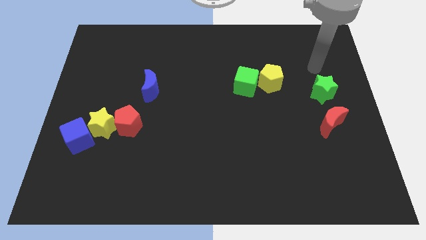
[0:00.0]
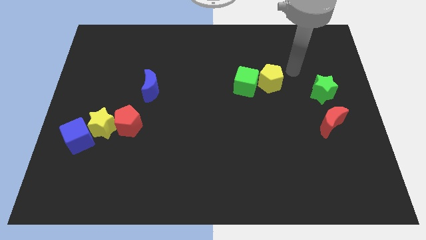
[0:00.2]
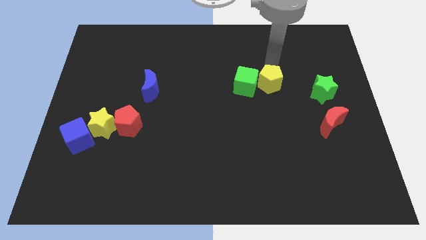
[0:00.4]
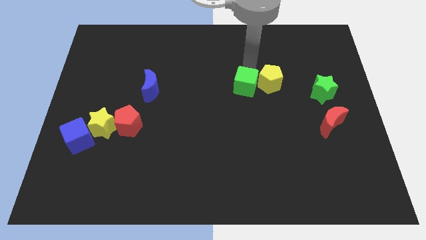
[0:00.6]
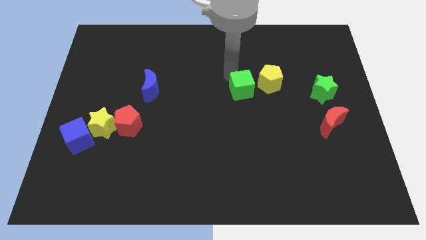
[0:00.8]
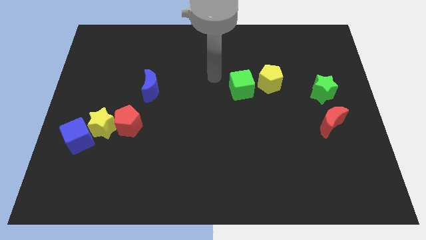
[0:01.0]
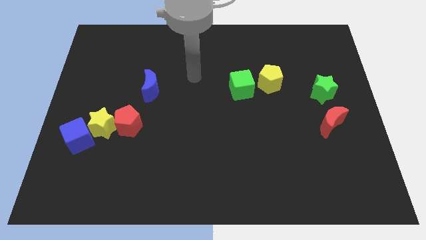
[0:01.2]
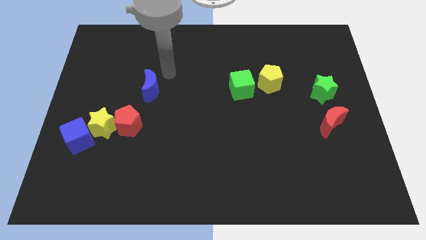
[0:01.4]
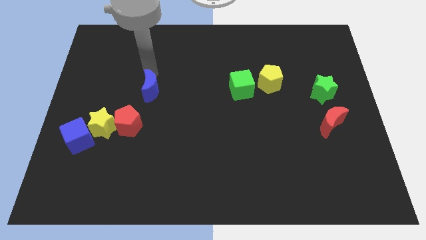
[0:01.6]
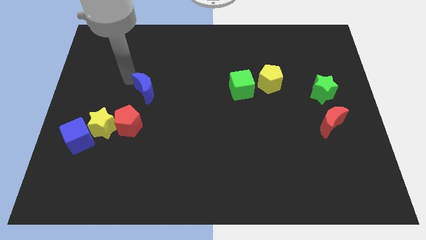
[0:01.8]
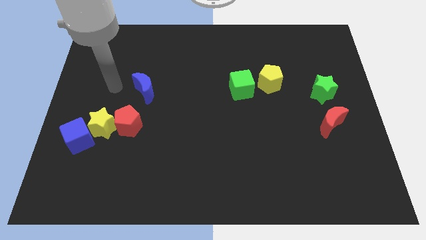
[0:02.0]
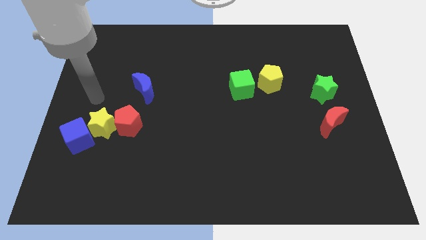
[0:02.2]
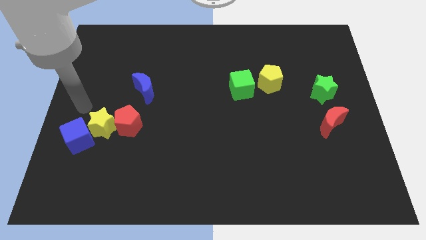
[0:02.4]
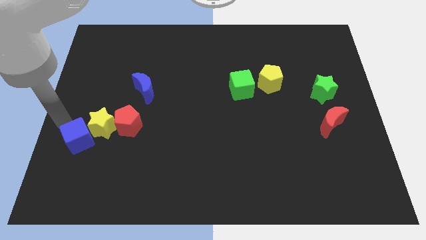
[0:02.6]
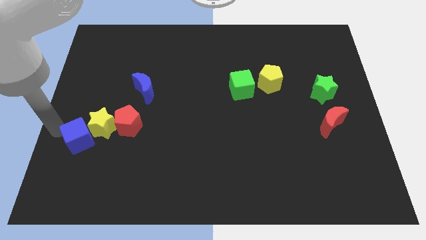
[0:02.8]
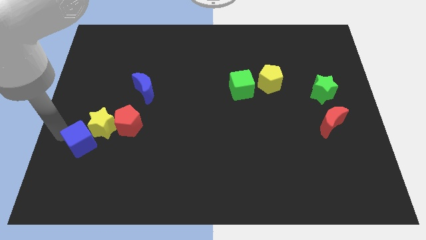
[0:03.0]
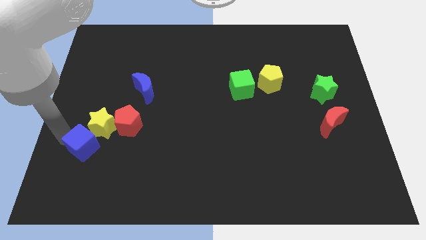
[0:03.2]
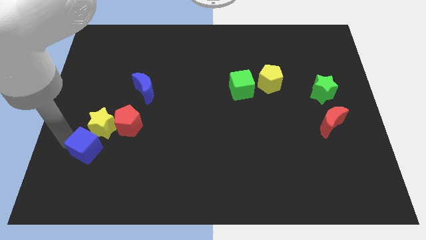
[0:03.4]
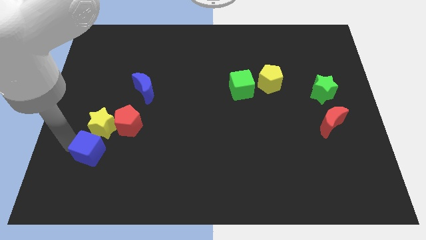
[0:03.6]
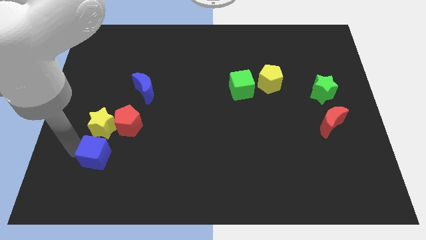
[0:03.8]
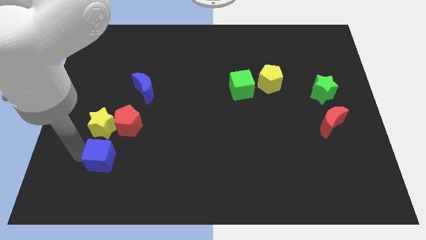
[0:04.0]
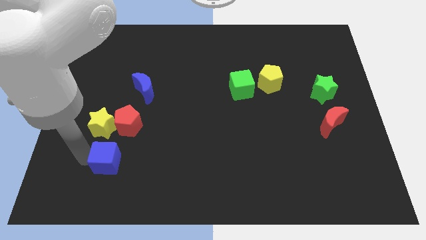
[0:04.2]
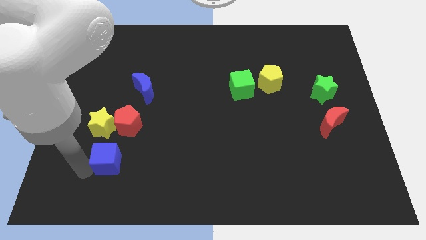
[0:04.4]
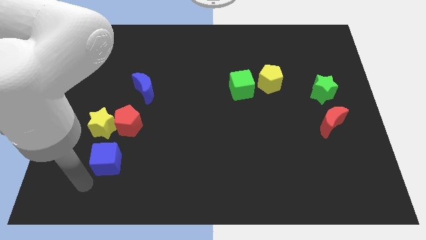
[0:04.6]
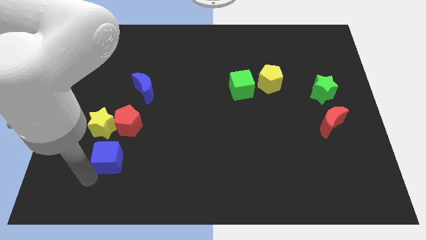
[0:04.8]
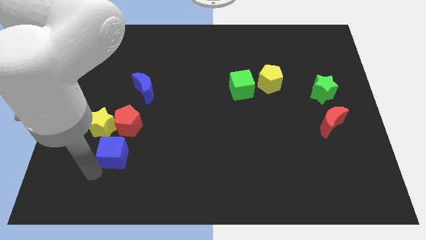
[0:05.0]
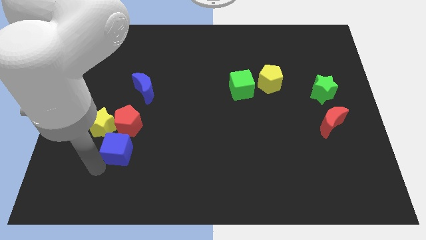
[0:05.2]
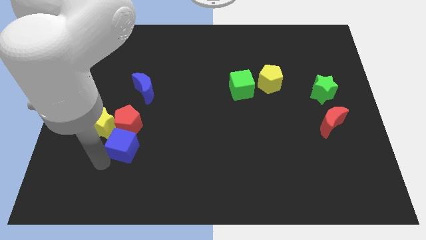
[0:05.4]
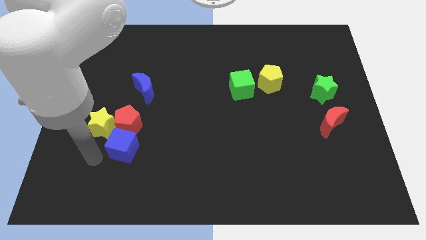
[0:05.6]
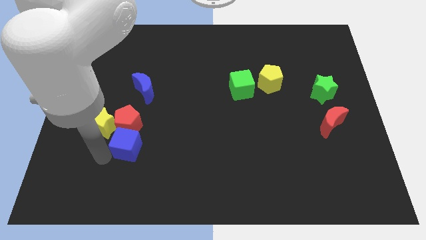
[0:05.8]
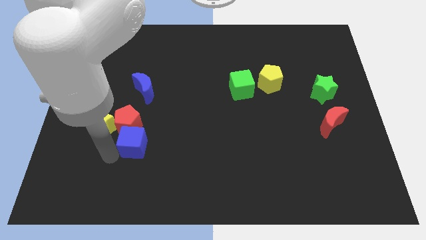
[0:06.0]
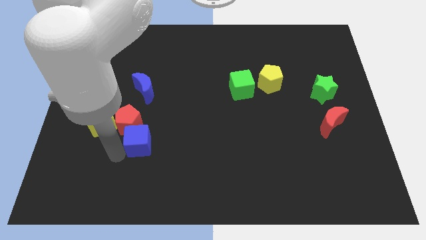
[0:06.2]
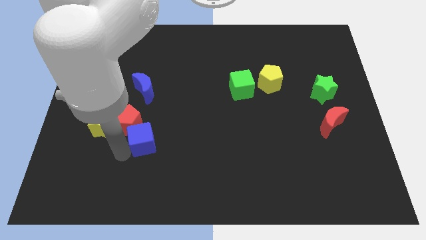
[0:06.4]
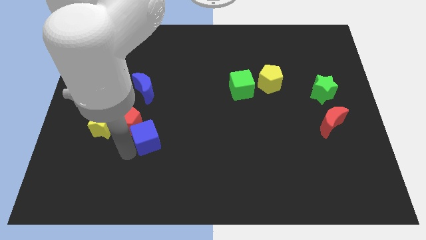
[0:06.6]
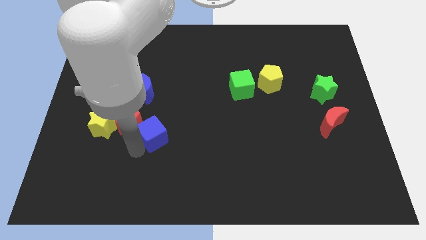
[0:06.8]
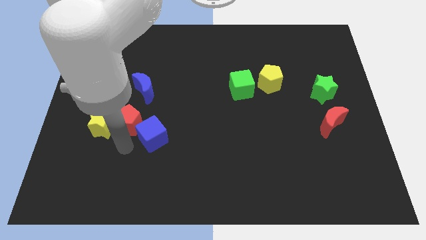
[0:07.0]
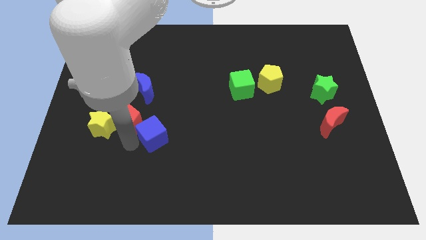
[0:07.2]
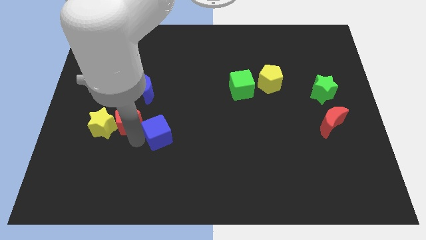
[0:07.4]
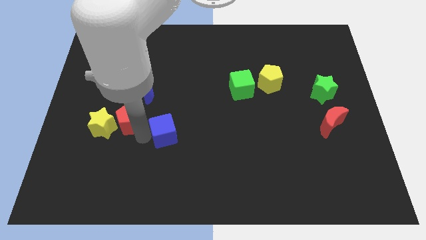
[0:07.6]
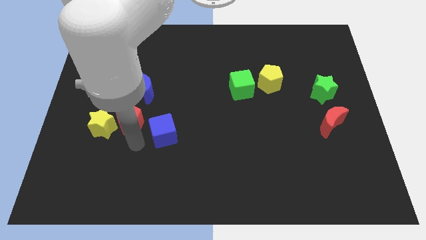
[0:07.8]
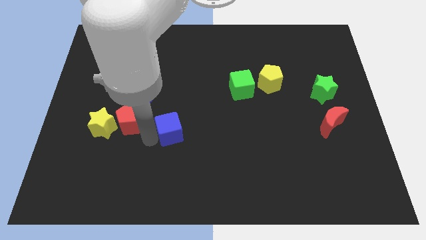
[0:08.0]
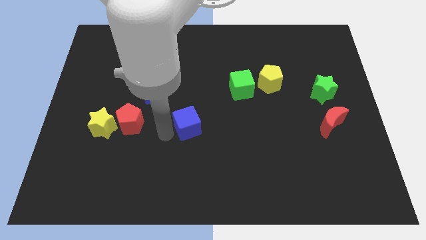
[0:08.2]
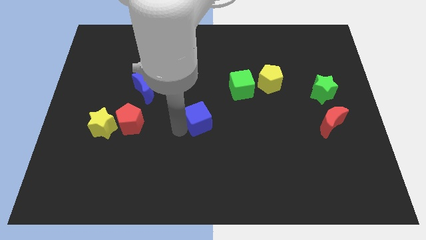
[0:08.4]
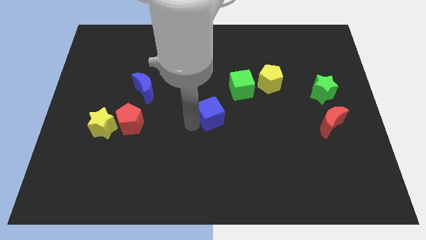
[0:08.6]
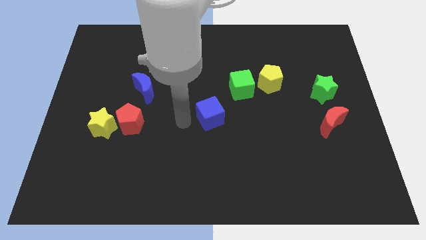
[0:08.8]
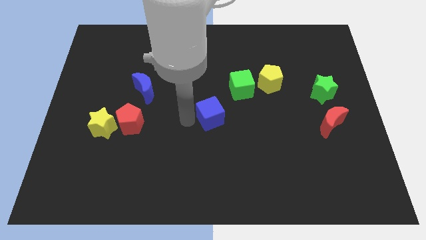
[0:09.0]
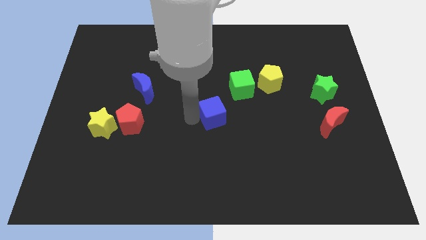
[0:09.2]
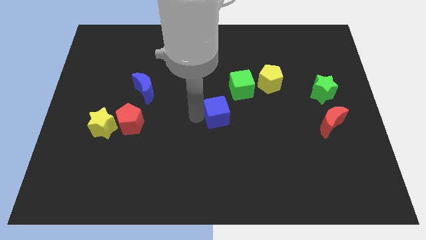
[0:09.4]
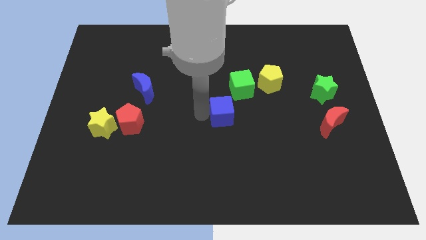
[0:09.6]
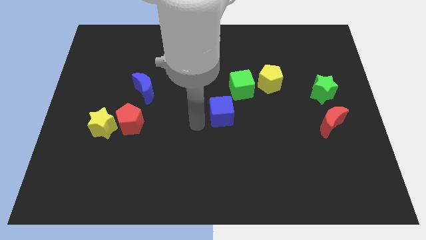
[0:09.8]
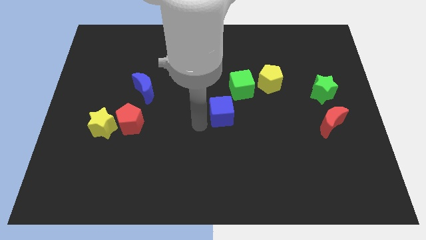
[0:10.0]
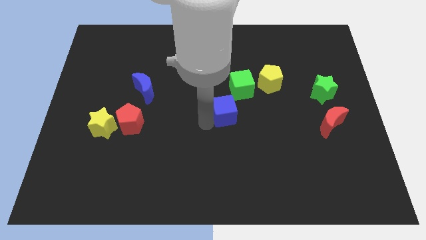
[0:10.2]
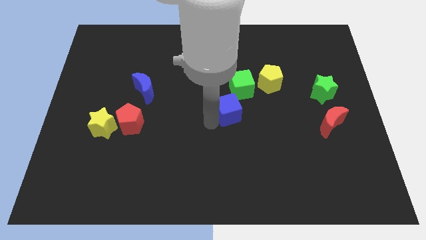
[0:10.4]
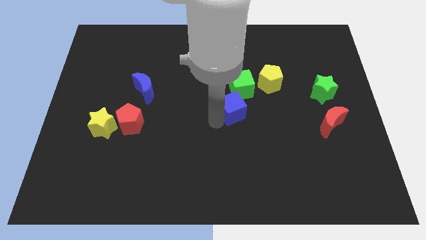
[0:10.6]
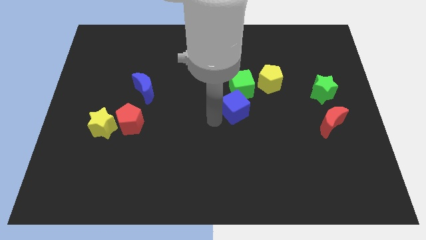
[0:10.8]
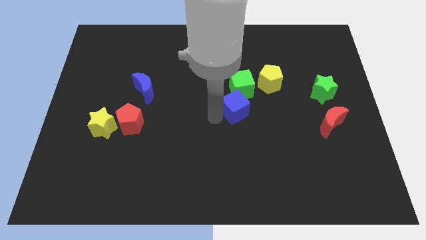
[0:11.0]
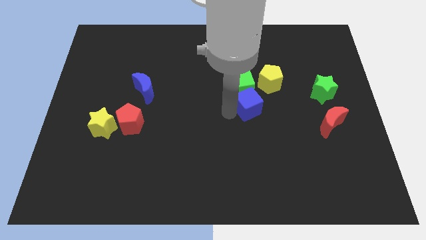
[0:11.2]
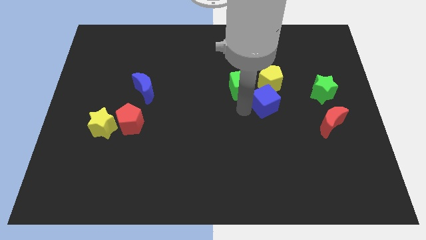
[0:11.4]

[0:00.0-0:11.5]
move the blue cube left of the green star

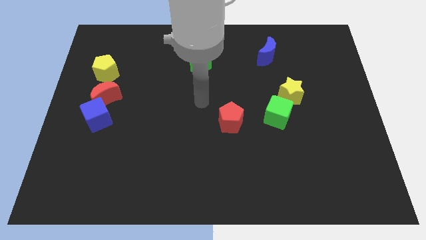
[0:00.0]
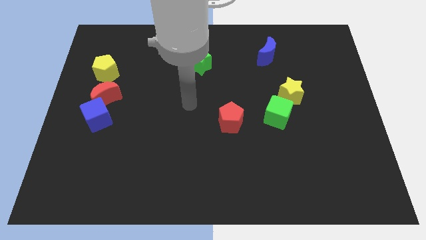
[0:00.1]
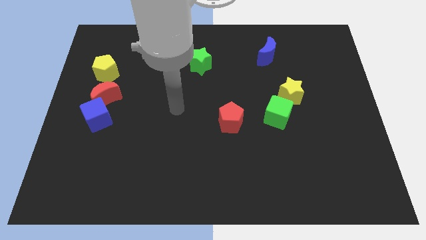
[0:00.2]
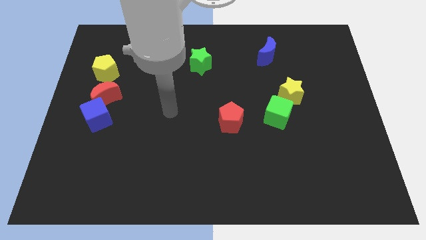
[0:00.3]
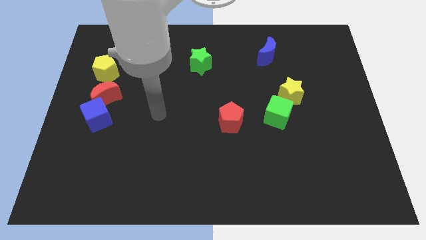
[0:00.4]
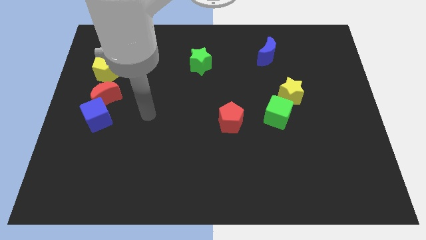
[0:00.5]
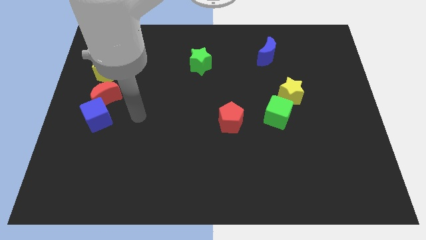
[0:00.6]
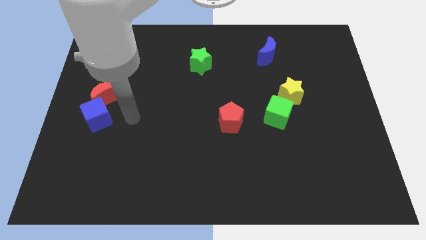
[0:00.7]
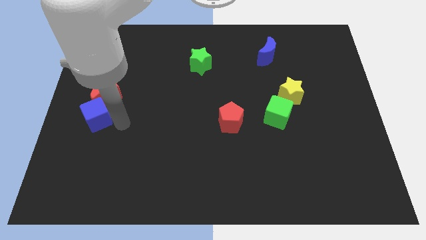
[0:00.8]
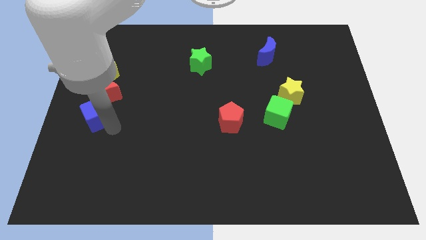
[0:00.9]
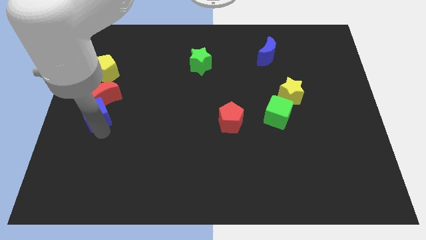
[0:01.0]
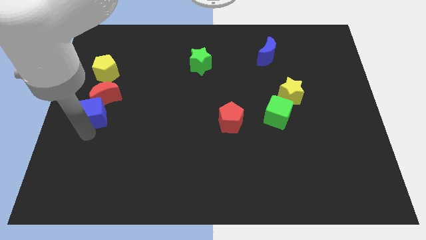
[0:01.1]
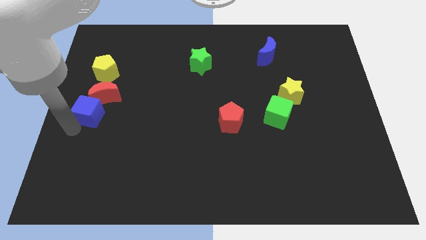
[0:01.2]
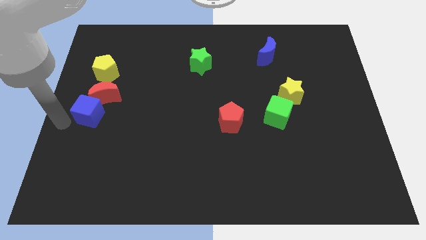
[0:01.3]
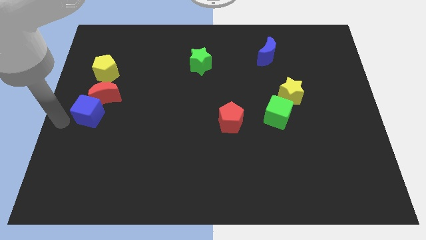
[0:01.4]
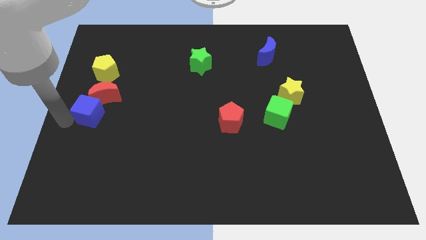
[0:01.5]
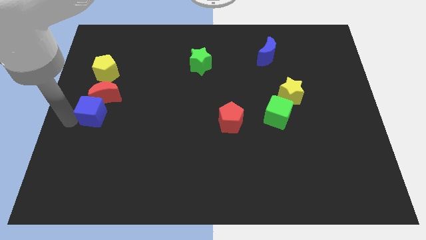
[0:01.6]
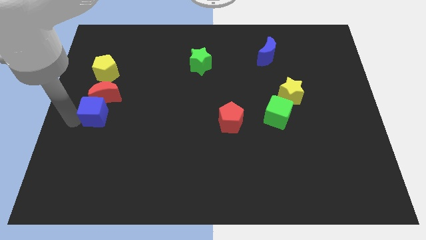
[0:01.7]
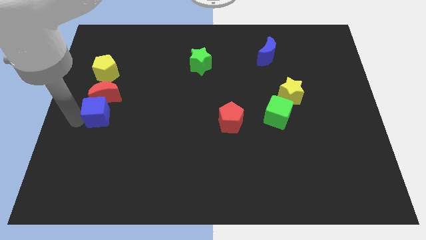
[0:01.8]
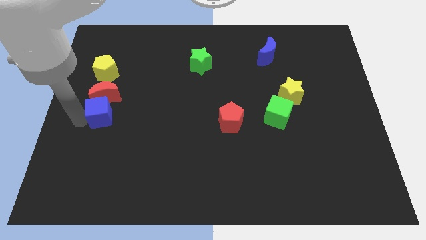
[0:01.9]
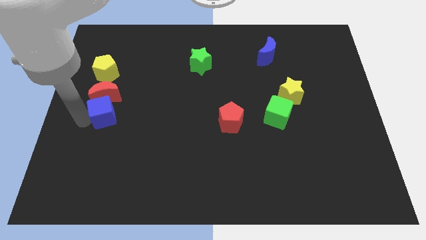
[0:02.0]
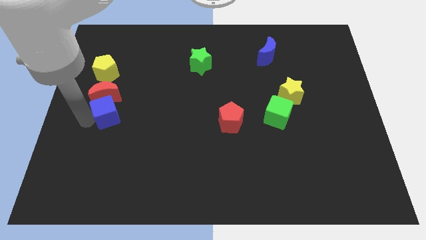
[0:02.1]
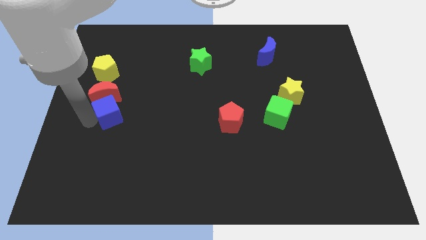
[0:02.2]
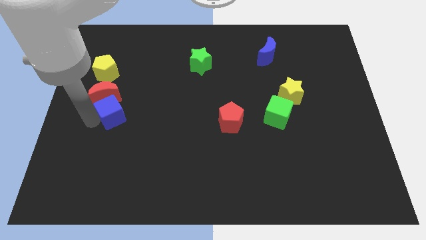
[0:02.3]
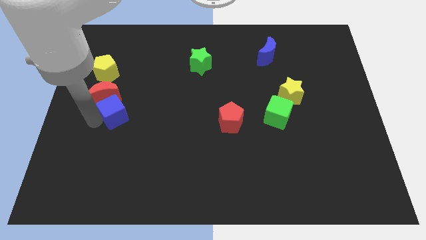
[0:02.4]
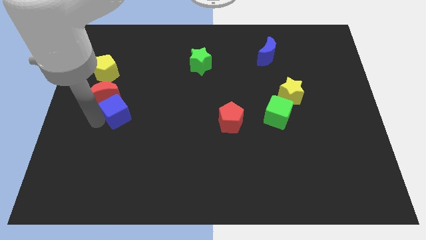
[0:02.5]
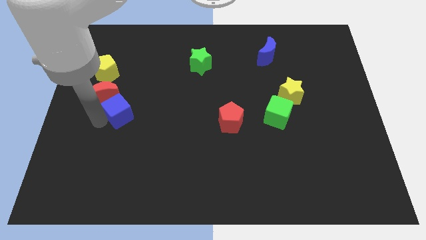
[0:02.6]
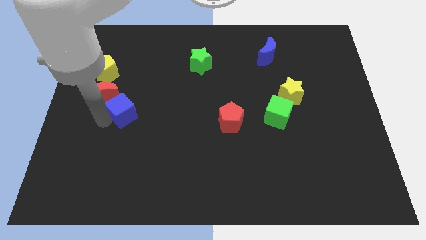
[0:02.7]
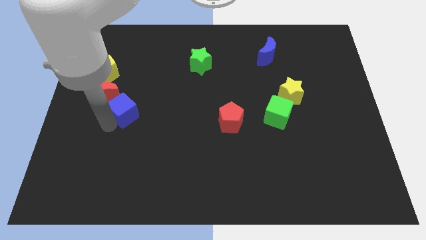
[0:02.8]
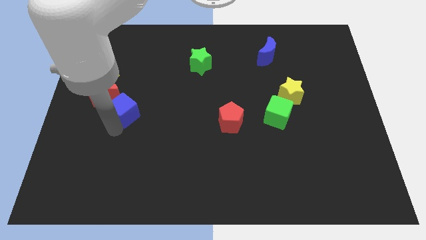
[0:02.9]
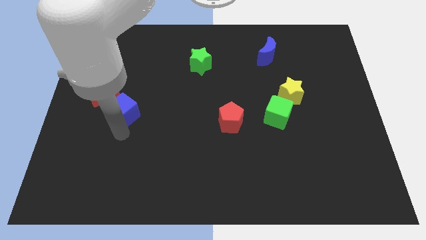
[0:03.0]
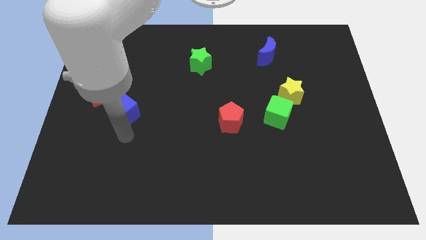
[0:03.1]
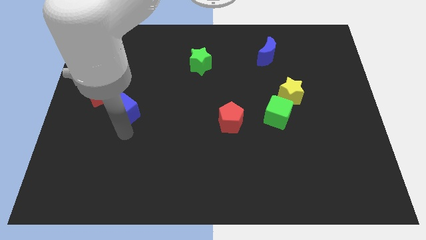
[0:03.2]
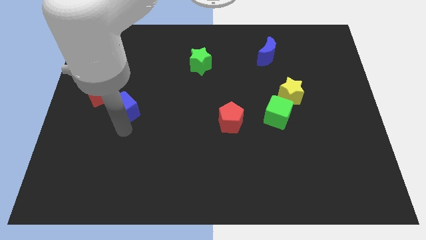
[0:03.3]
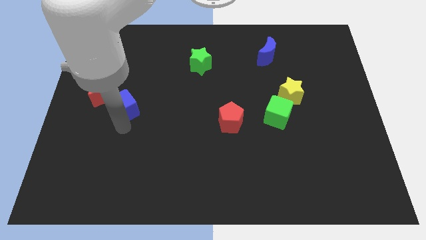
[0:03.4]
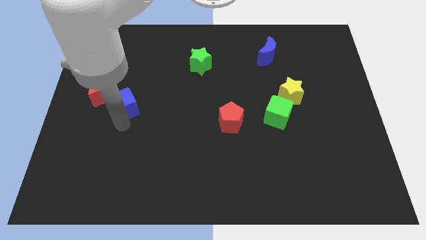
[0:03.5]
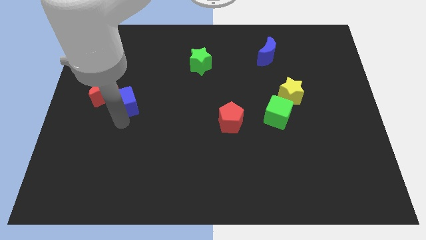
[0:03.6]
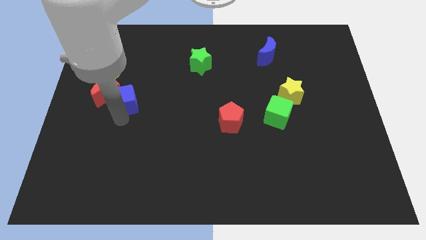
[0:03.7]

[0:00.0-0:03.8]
slide the blue cube to the bottom right side of the yellow pentagon
